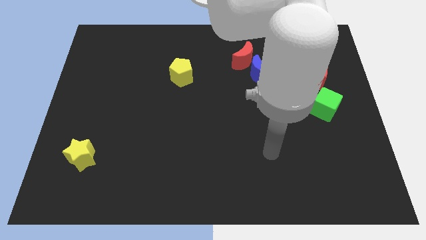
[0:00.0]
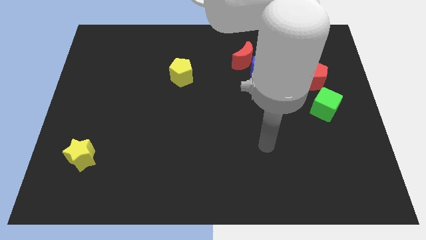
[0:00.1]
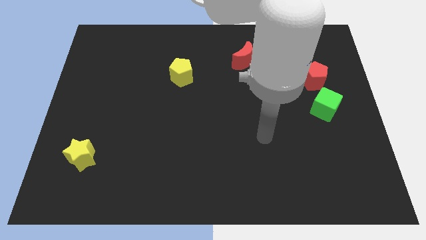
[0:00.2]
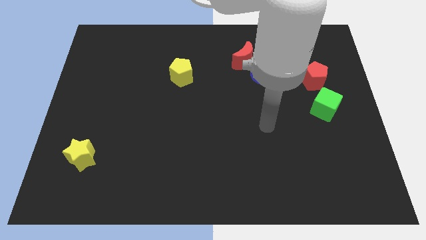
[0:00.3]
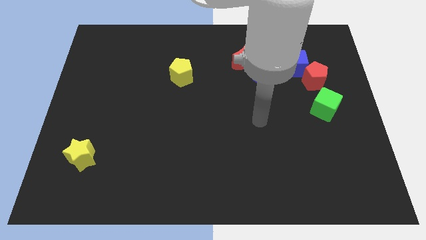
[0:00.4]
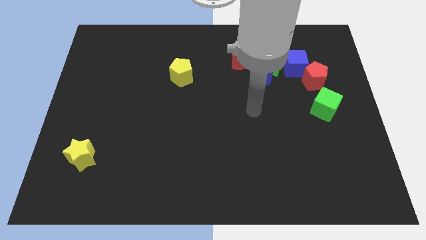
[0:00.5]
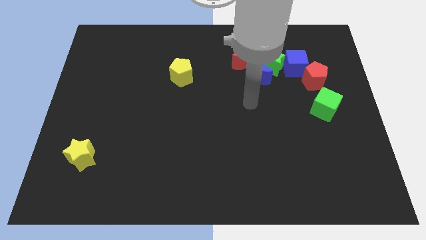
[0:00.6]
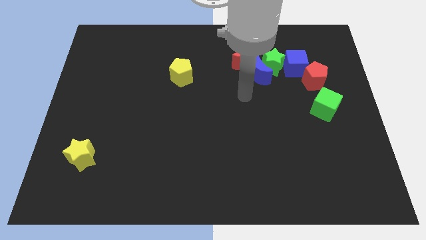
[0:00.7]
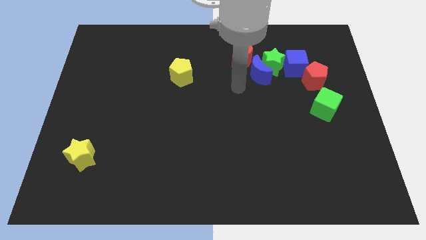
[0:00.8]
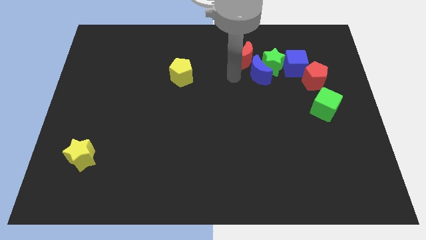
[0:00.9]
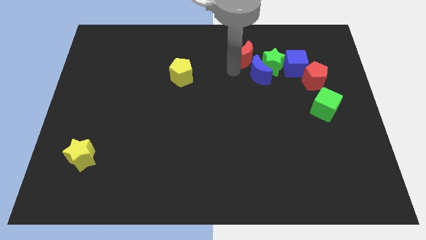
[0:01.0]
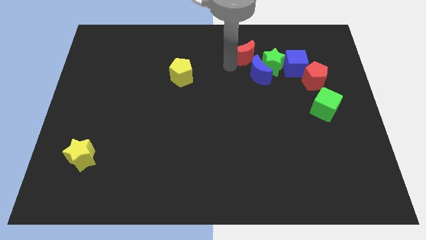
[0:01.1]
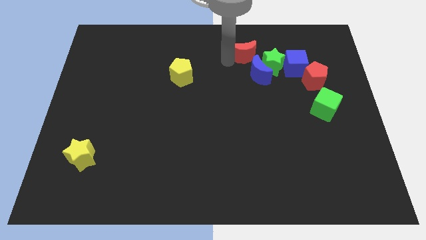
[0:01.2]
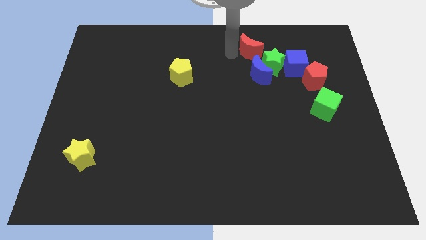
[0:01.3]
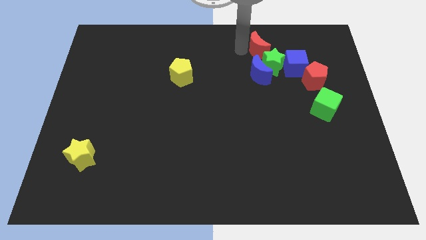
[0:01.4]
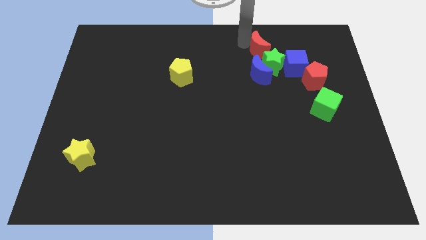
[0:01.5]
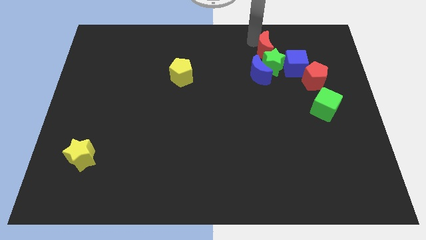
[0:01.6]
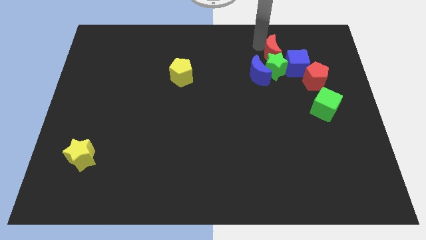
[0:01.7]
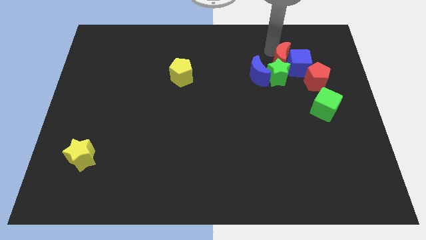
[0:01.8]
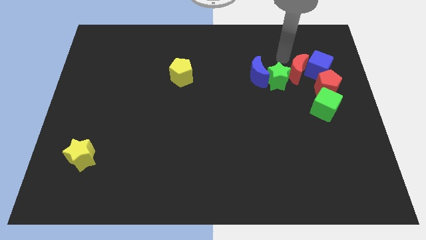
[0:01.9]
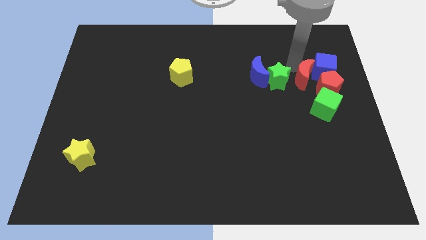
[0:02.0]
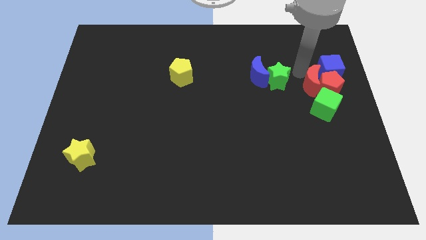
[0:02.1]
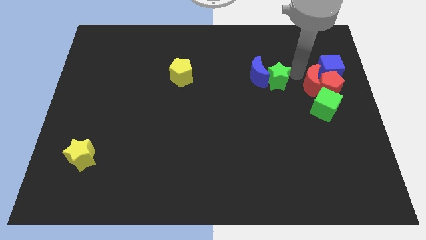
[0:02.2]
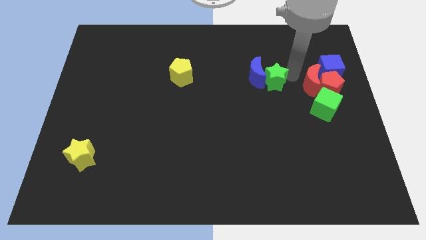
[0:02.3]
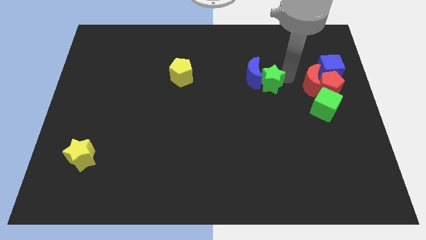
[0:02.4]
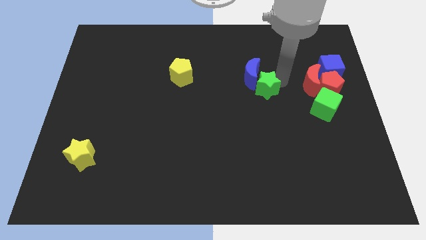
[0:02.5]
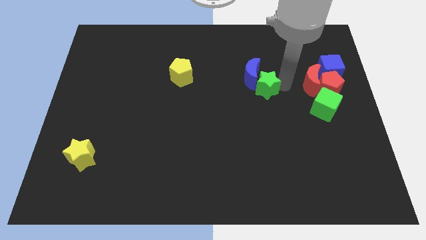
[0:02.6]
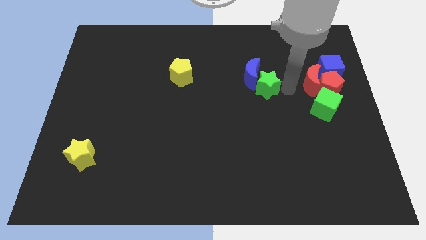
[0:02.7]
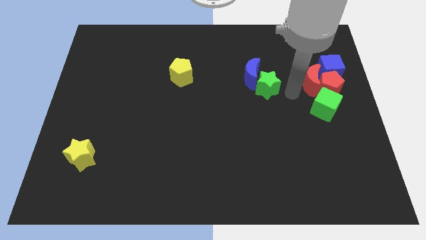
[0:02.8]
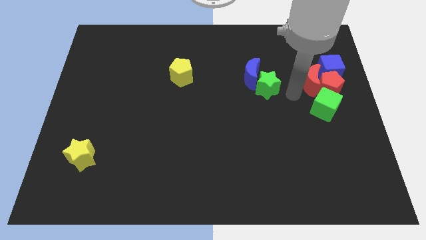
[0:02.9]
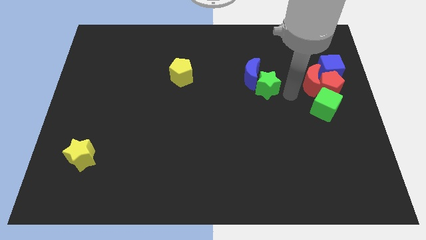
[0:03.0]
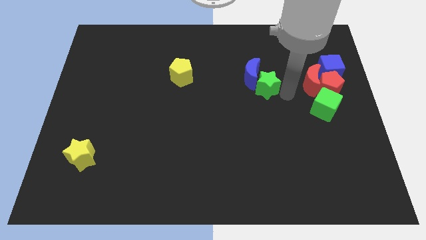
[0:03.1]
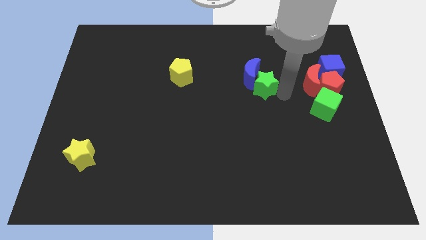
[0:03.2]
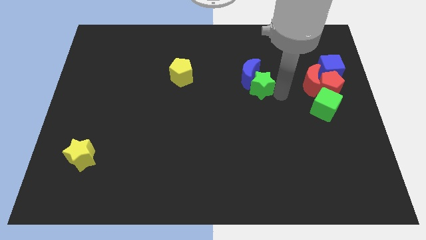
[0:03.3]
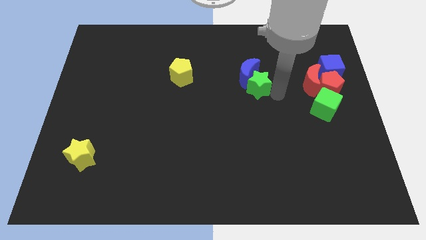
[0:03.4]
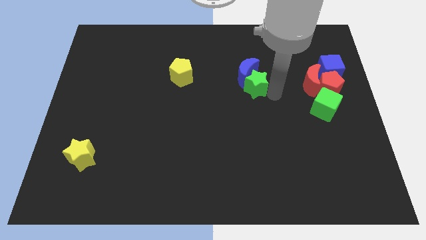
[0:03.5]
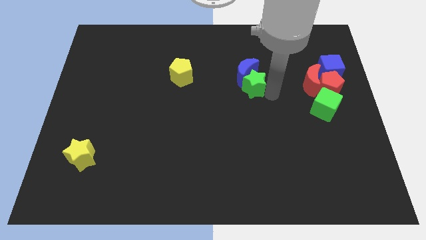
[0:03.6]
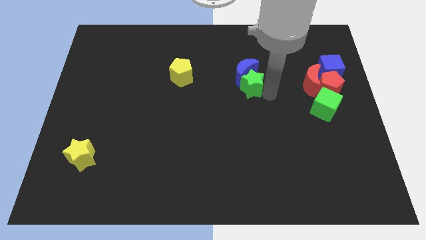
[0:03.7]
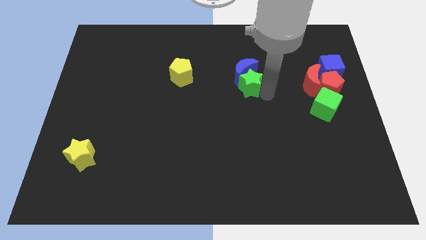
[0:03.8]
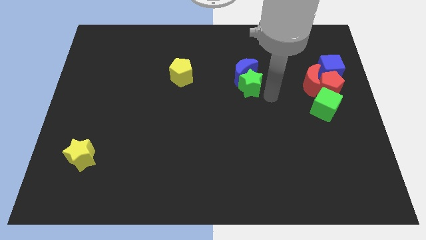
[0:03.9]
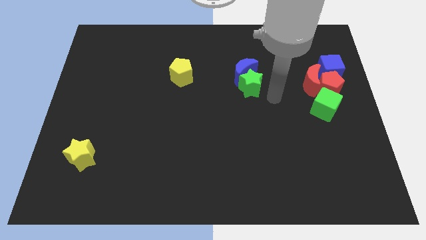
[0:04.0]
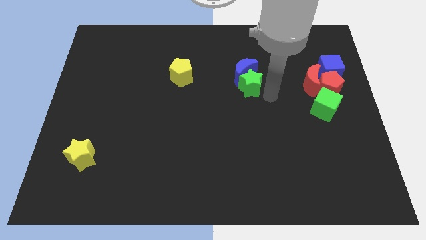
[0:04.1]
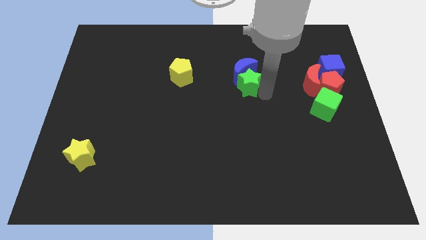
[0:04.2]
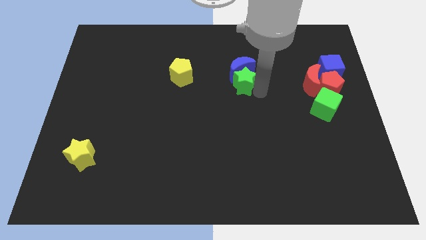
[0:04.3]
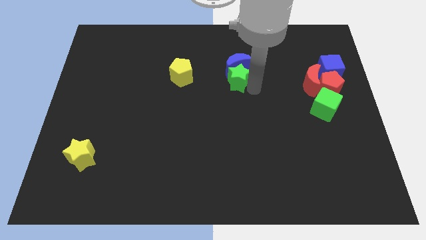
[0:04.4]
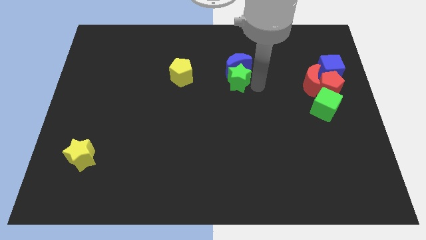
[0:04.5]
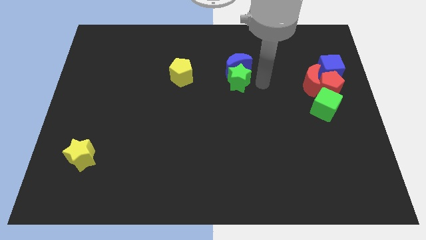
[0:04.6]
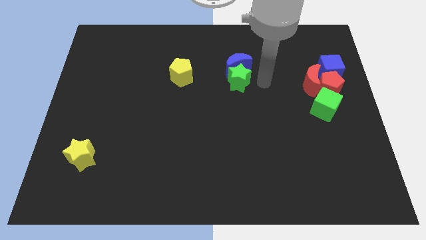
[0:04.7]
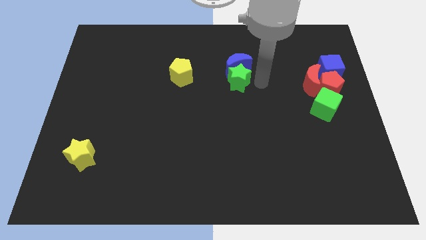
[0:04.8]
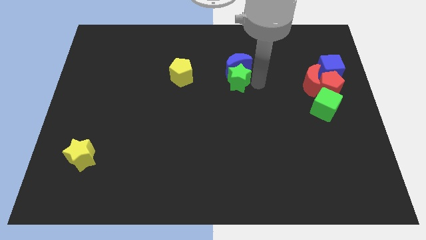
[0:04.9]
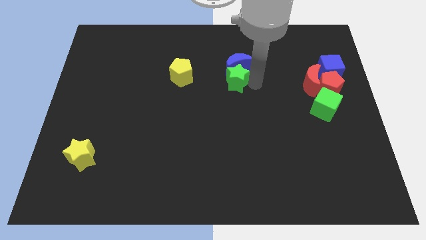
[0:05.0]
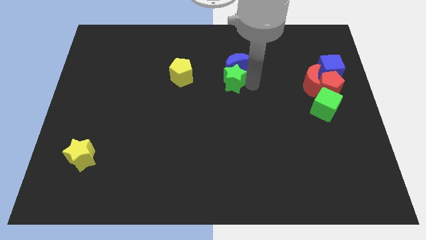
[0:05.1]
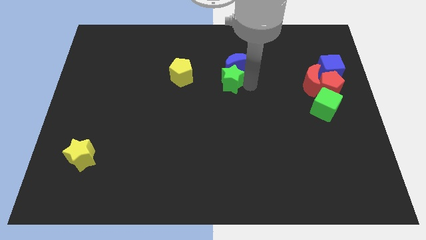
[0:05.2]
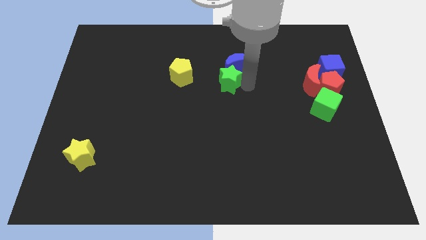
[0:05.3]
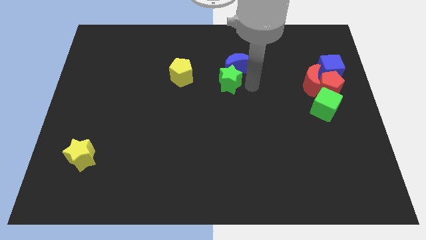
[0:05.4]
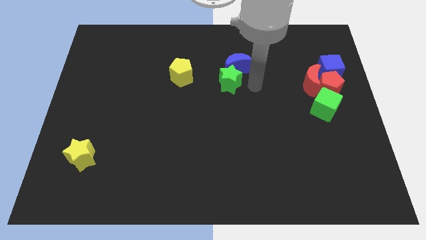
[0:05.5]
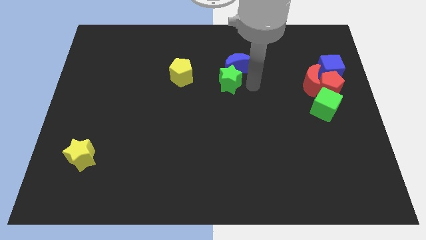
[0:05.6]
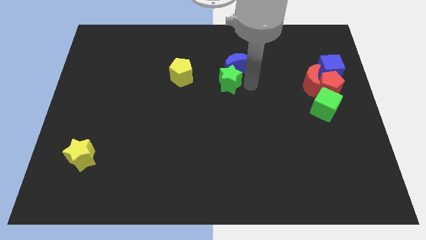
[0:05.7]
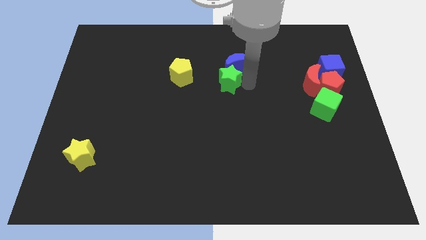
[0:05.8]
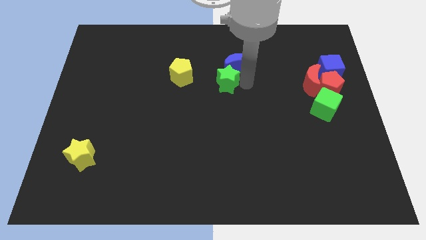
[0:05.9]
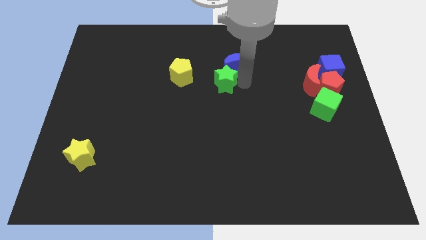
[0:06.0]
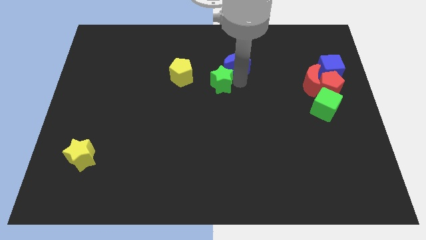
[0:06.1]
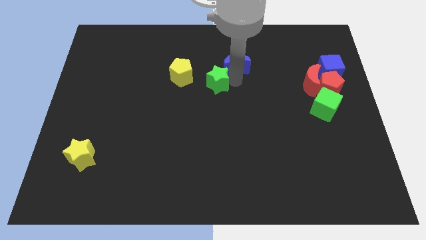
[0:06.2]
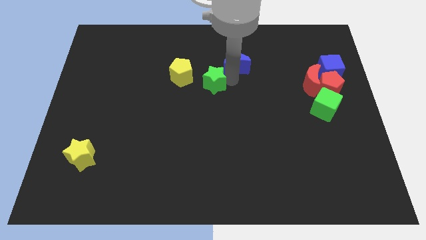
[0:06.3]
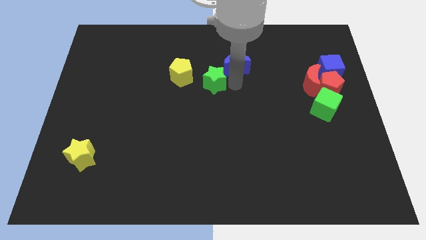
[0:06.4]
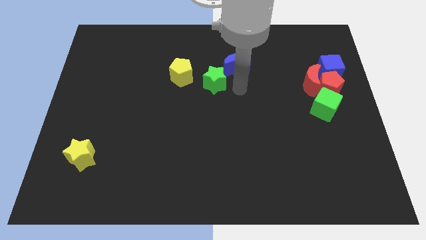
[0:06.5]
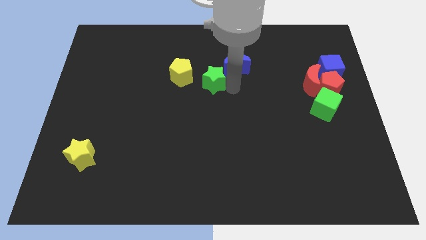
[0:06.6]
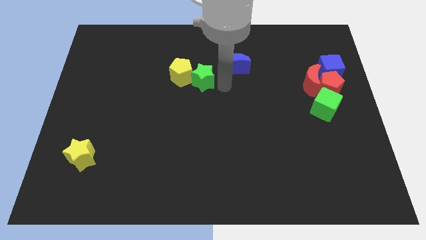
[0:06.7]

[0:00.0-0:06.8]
slide the green star to the yellow pentagon
